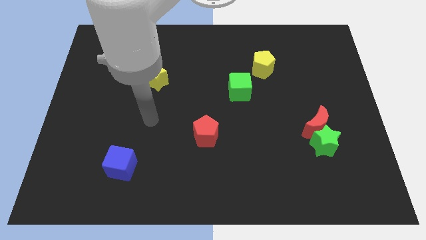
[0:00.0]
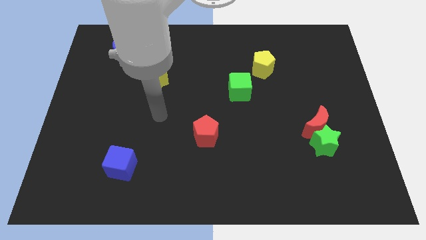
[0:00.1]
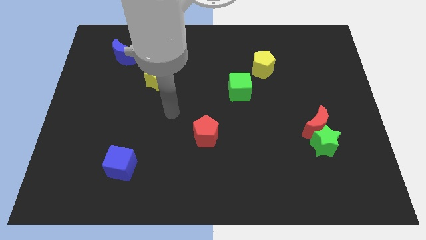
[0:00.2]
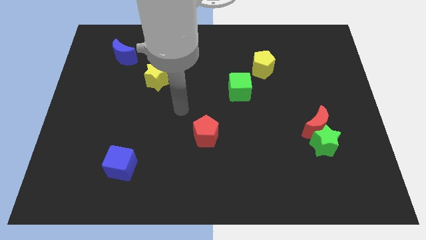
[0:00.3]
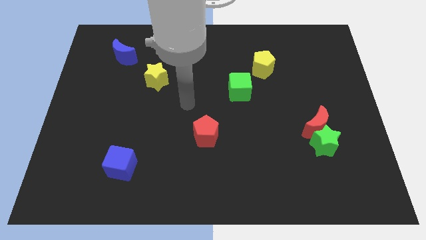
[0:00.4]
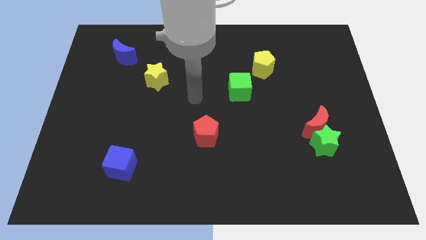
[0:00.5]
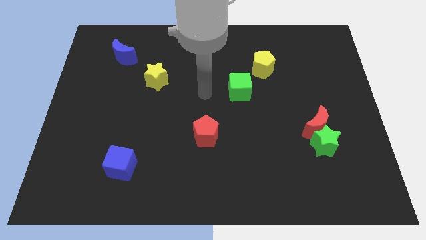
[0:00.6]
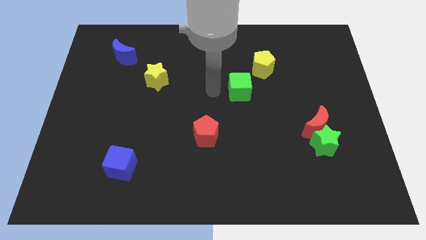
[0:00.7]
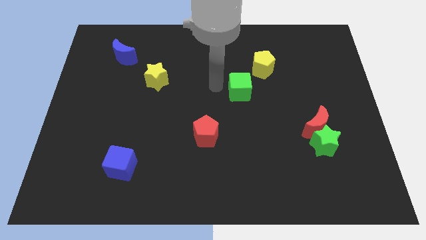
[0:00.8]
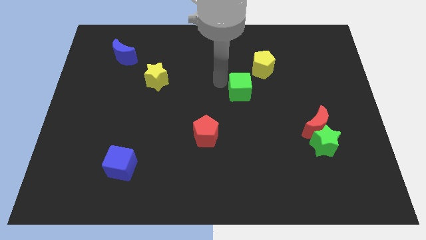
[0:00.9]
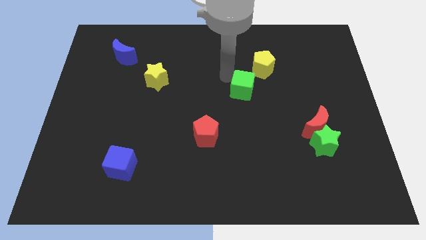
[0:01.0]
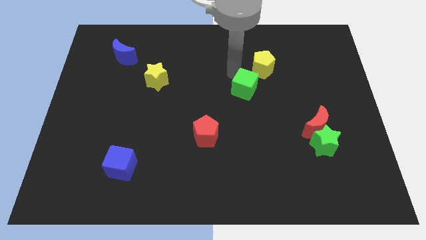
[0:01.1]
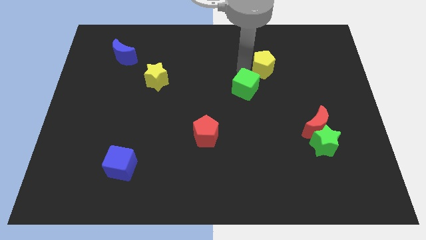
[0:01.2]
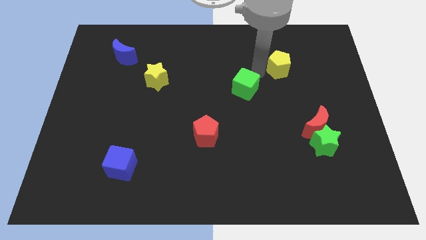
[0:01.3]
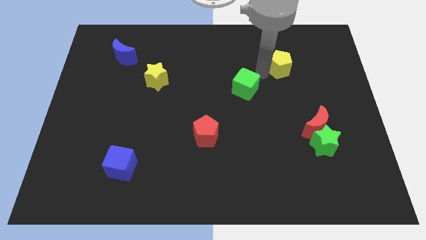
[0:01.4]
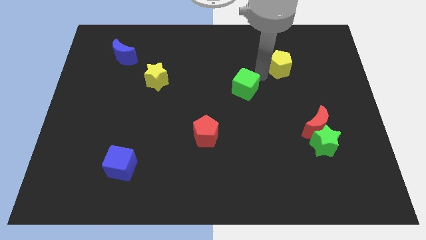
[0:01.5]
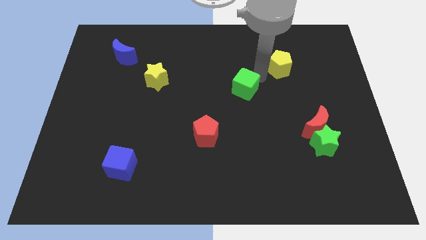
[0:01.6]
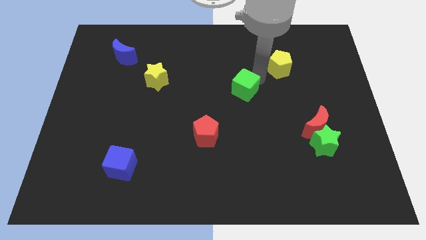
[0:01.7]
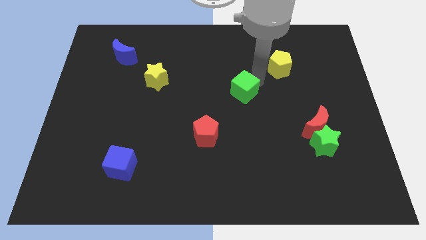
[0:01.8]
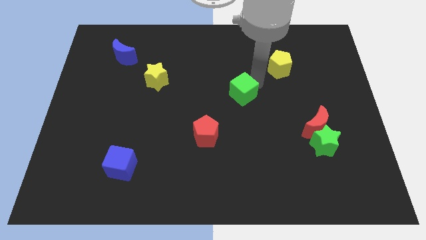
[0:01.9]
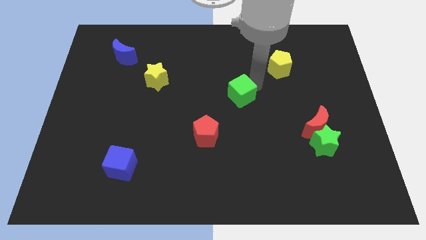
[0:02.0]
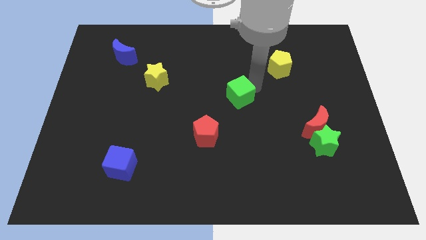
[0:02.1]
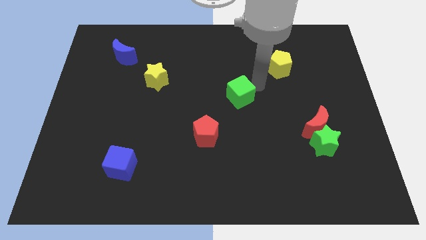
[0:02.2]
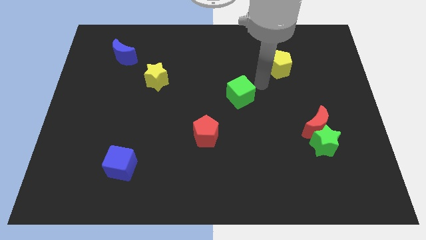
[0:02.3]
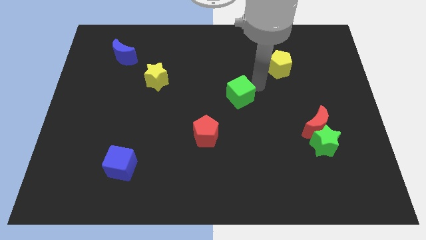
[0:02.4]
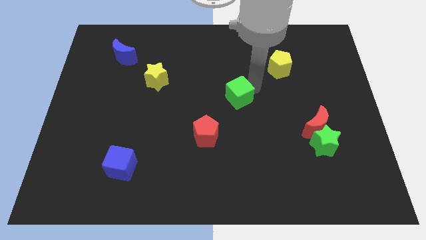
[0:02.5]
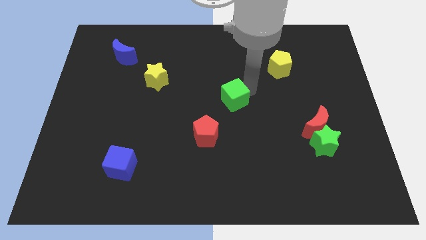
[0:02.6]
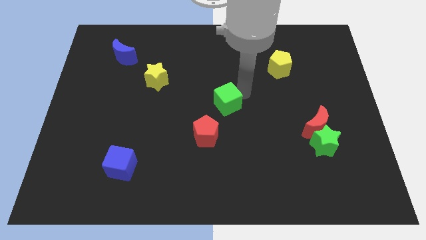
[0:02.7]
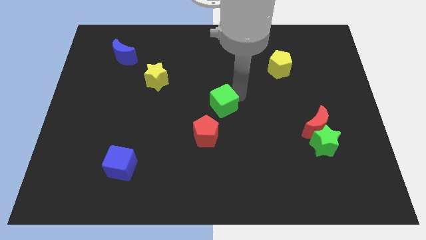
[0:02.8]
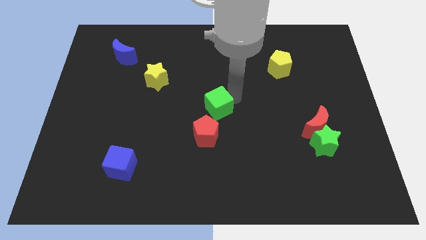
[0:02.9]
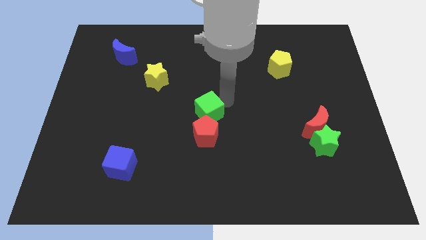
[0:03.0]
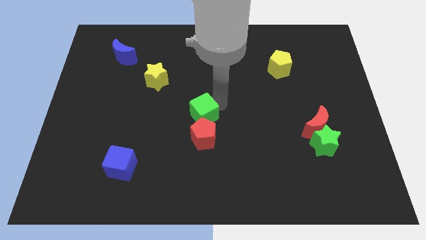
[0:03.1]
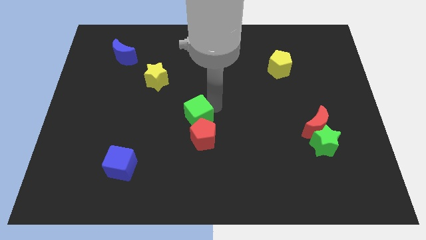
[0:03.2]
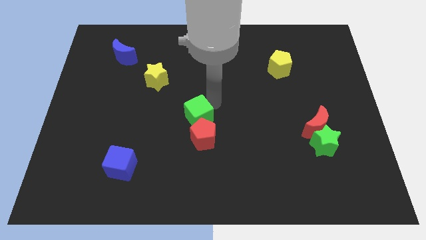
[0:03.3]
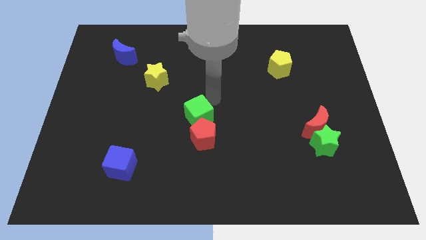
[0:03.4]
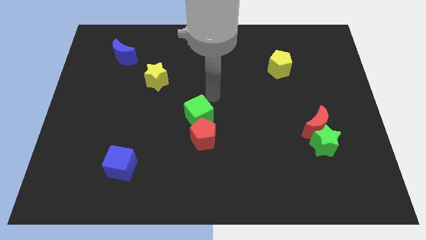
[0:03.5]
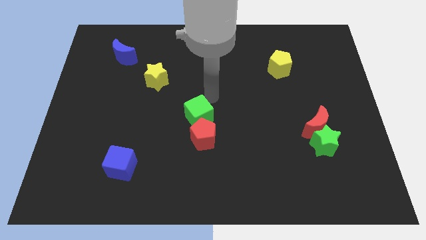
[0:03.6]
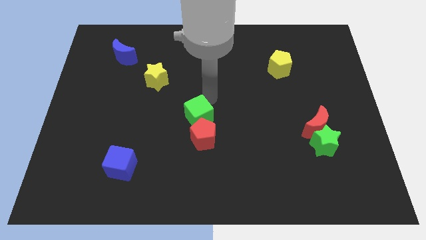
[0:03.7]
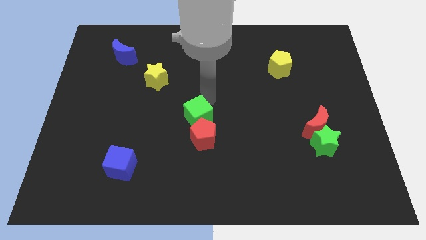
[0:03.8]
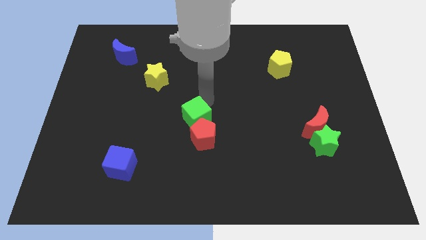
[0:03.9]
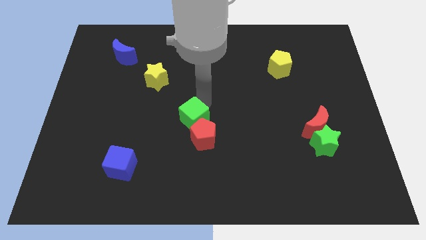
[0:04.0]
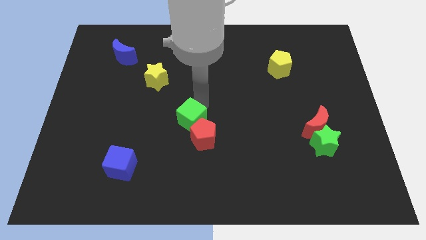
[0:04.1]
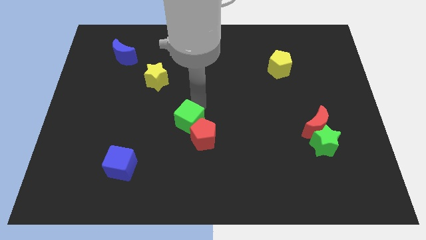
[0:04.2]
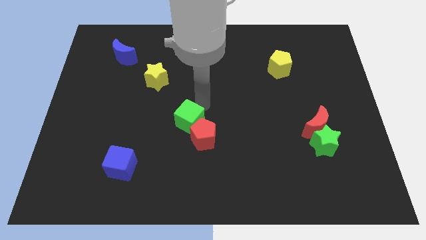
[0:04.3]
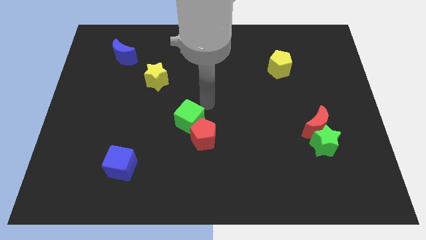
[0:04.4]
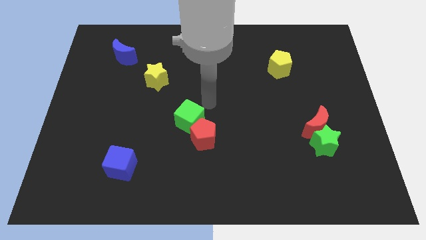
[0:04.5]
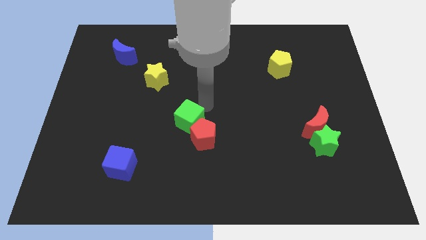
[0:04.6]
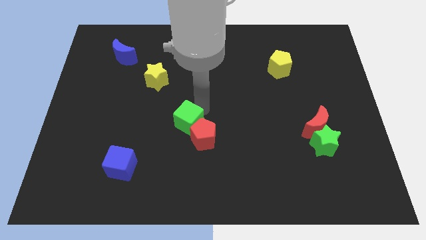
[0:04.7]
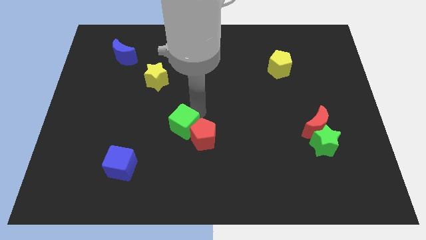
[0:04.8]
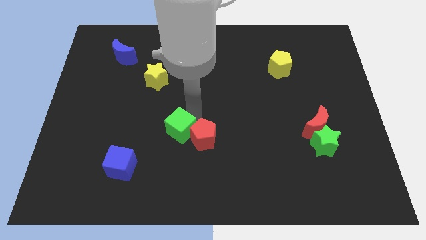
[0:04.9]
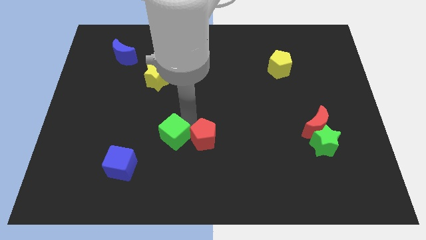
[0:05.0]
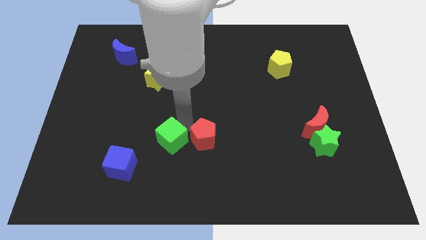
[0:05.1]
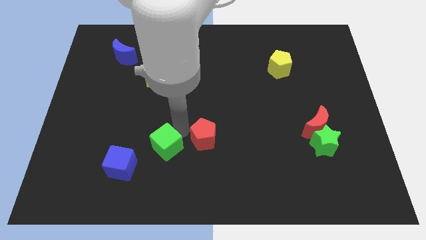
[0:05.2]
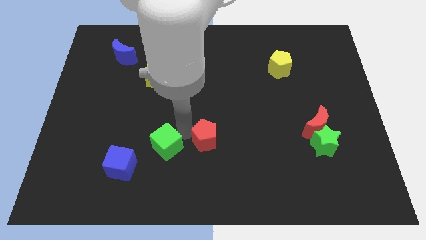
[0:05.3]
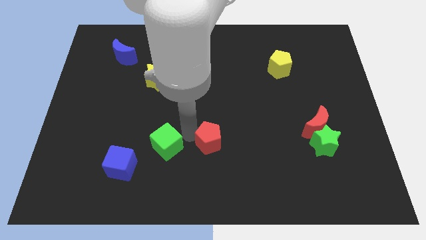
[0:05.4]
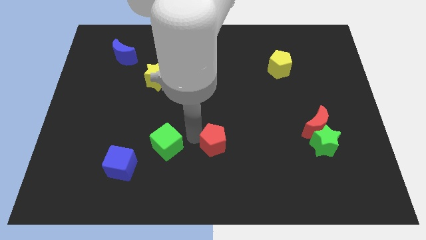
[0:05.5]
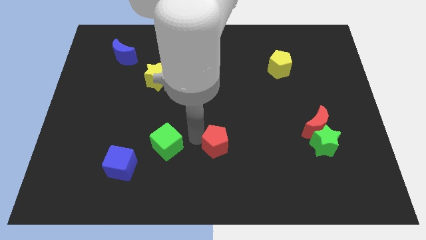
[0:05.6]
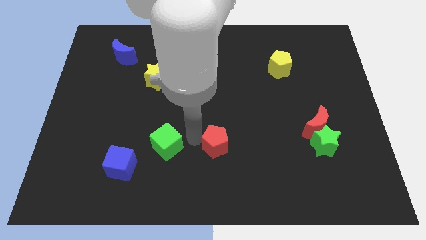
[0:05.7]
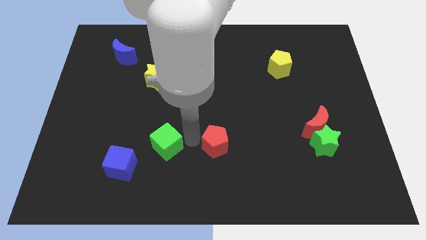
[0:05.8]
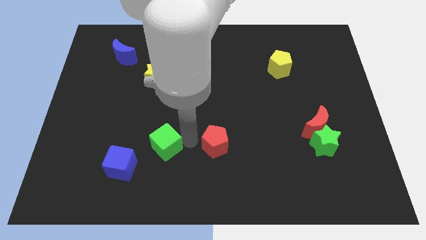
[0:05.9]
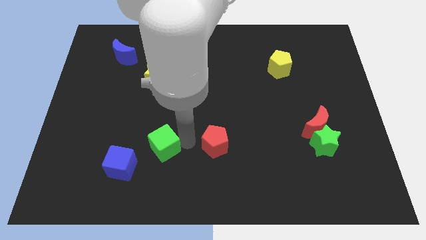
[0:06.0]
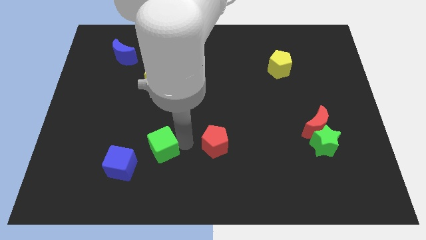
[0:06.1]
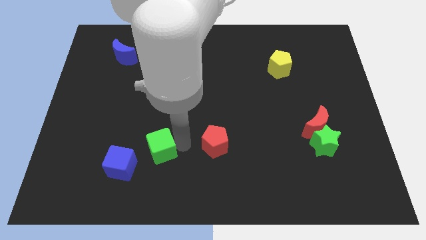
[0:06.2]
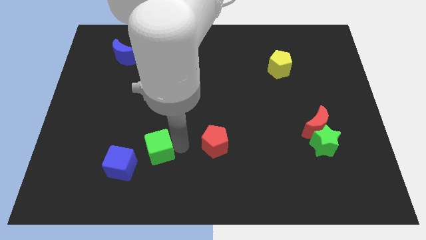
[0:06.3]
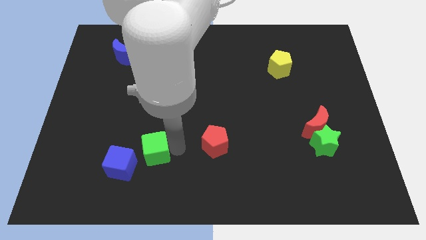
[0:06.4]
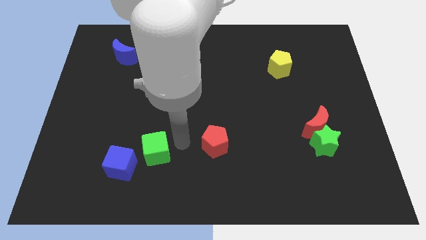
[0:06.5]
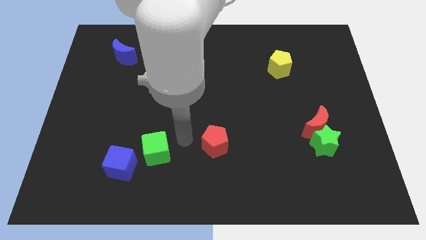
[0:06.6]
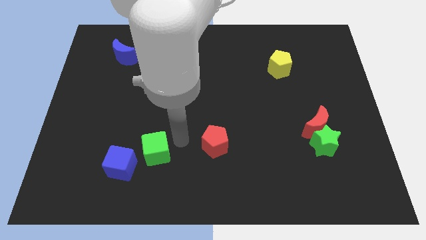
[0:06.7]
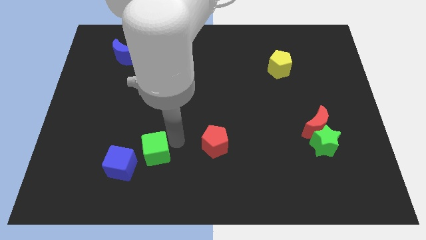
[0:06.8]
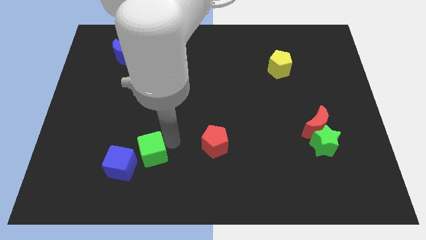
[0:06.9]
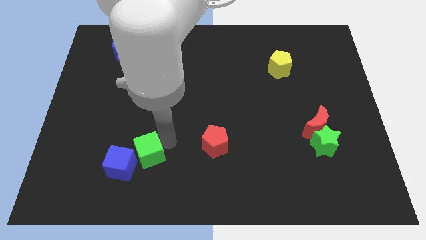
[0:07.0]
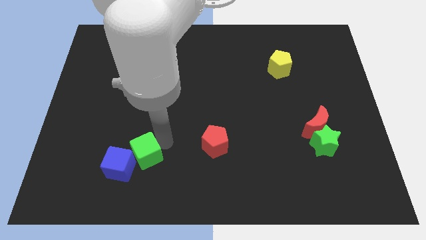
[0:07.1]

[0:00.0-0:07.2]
slide the green cube close to the blue cube
